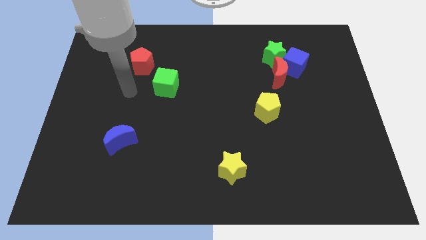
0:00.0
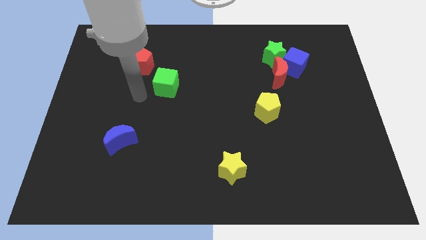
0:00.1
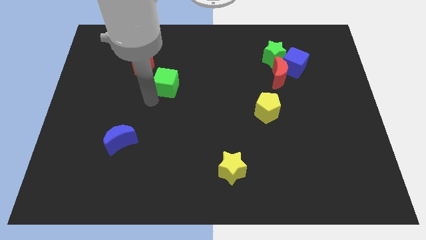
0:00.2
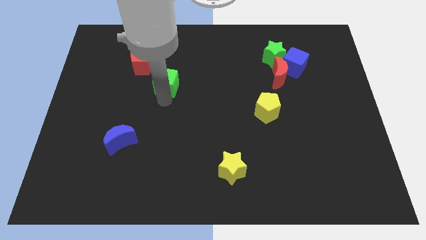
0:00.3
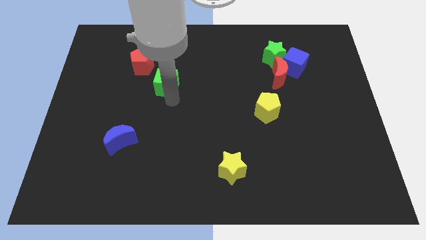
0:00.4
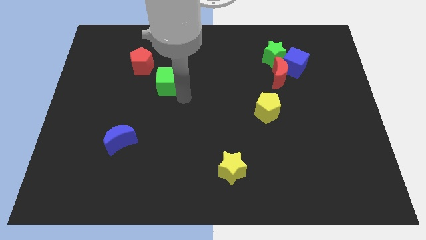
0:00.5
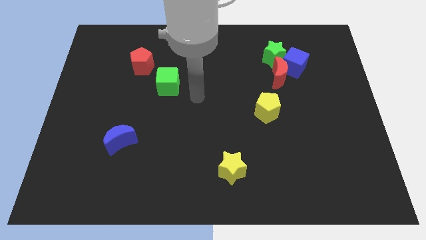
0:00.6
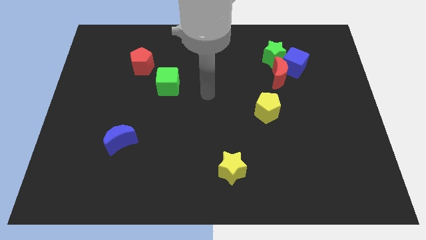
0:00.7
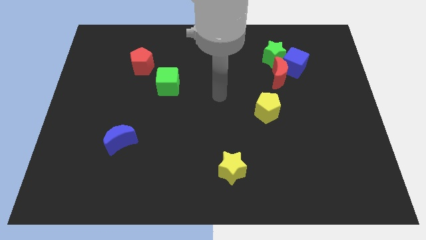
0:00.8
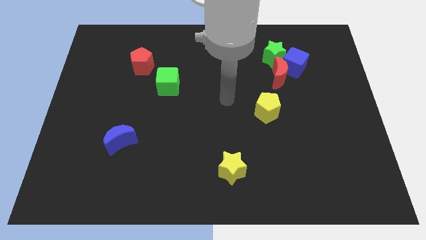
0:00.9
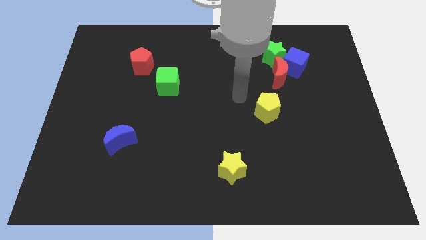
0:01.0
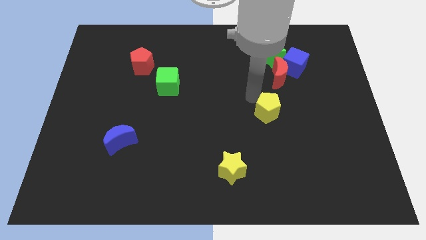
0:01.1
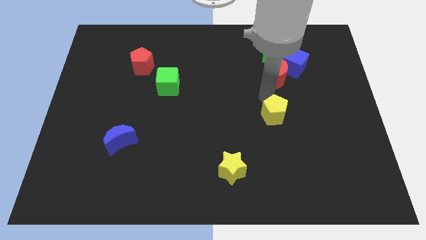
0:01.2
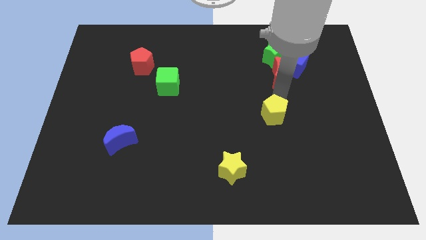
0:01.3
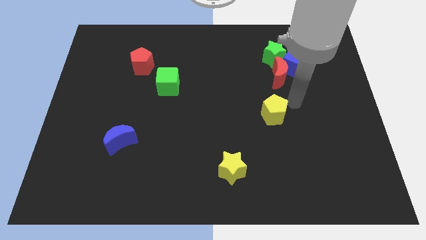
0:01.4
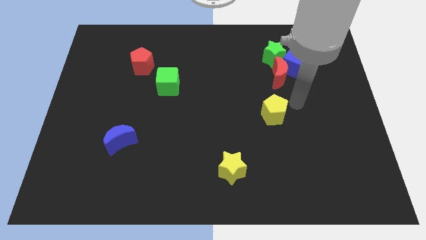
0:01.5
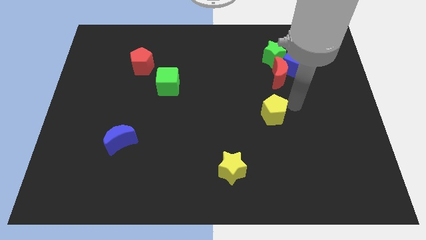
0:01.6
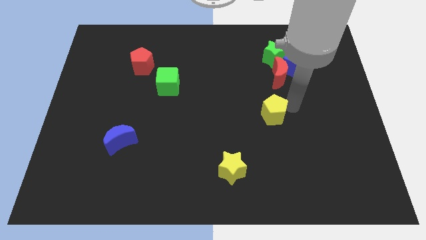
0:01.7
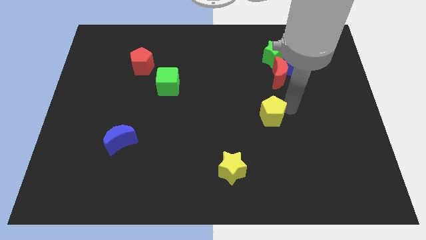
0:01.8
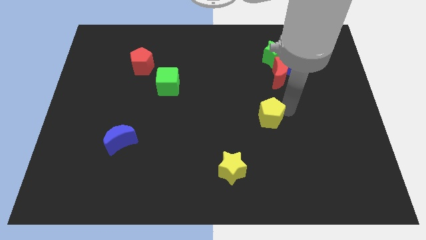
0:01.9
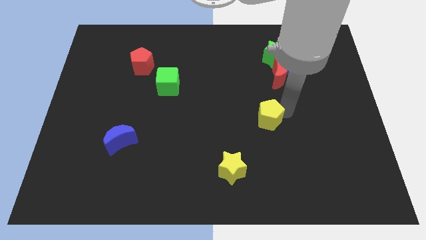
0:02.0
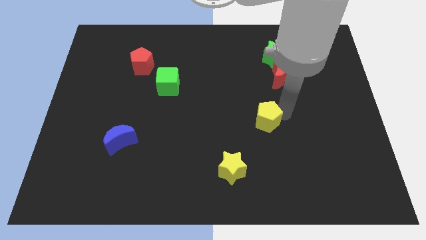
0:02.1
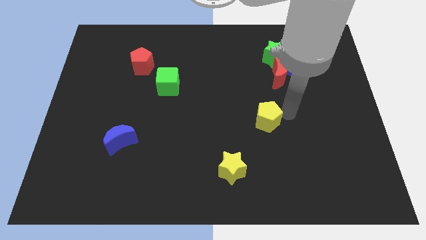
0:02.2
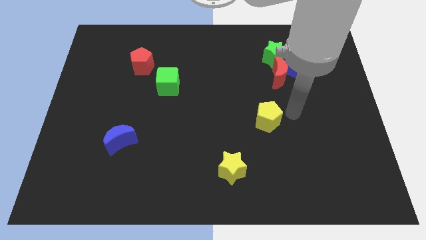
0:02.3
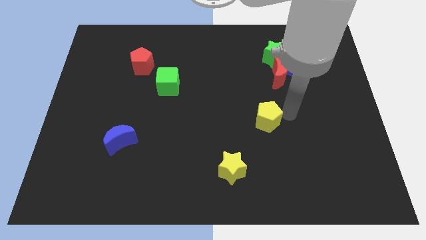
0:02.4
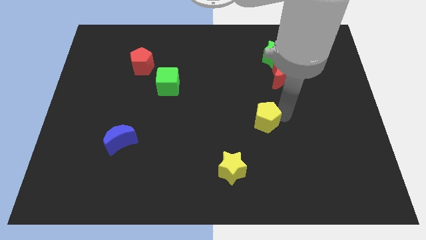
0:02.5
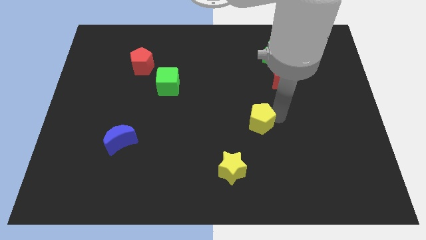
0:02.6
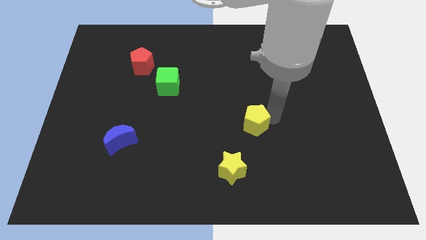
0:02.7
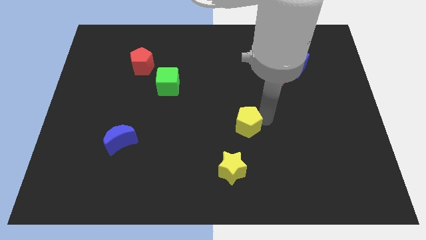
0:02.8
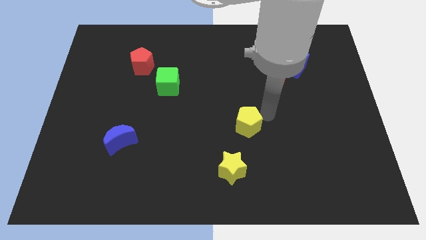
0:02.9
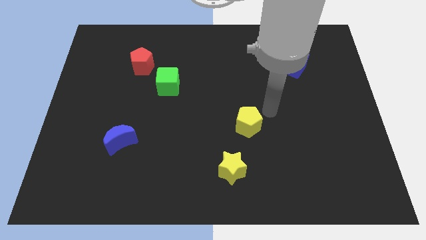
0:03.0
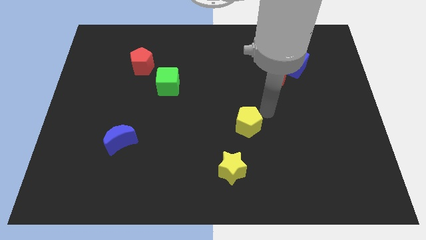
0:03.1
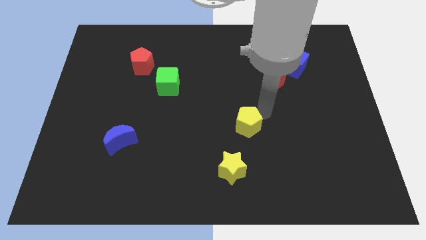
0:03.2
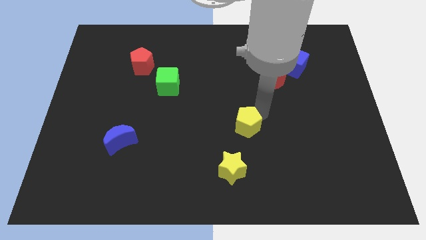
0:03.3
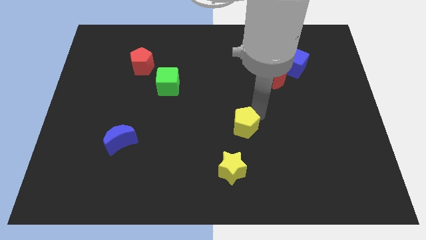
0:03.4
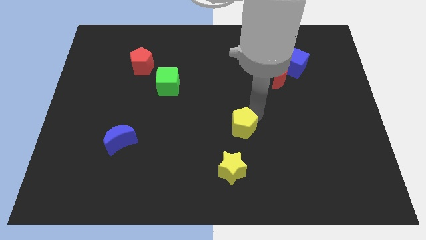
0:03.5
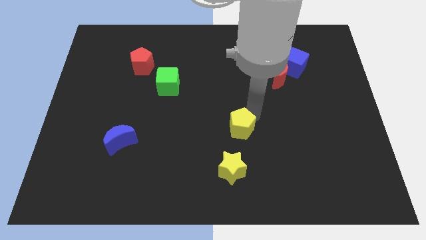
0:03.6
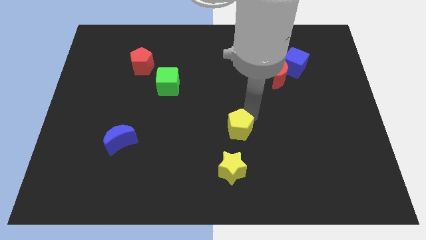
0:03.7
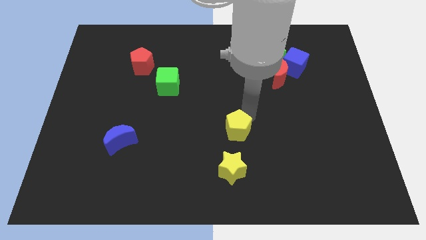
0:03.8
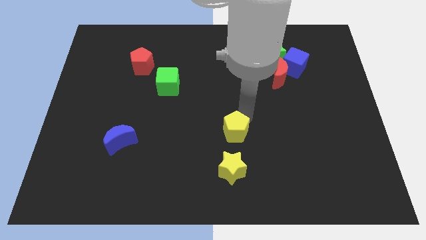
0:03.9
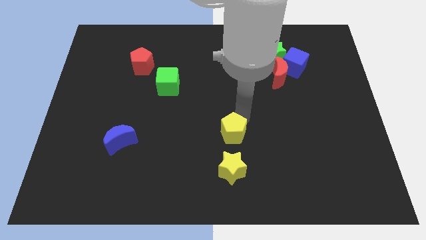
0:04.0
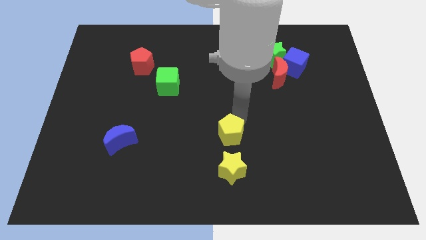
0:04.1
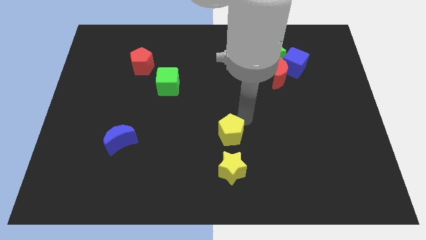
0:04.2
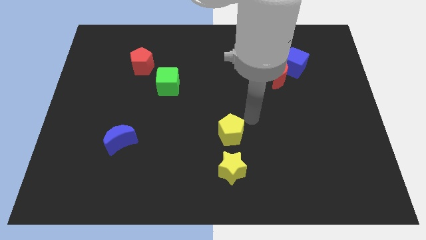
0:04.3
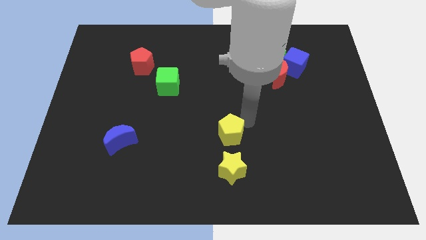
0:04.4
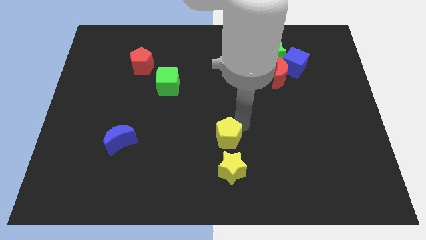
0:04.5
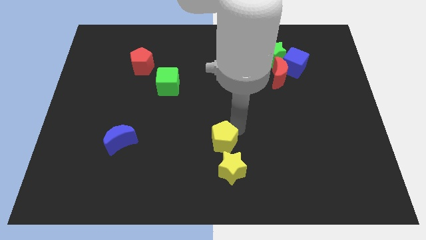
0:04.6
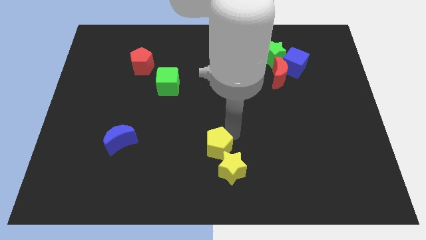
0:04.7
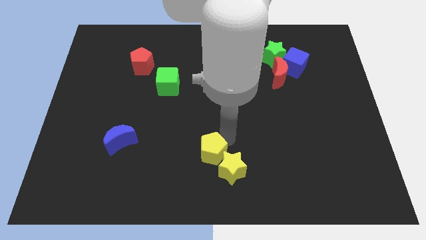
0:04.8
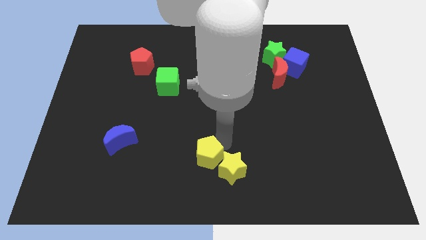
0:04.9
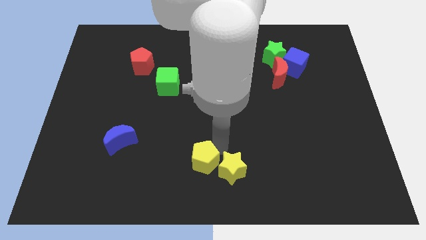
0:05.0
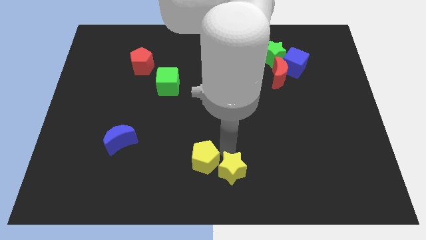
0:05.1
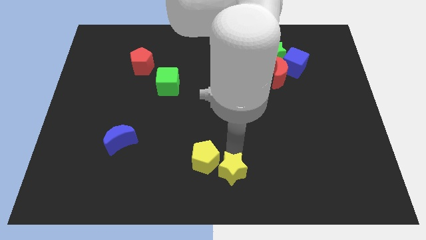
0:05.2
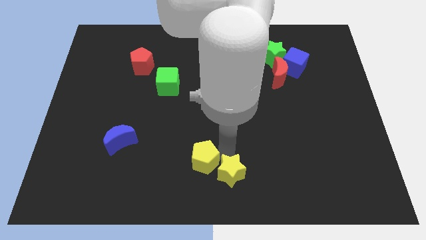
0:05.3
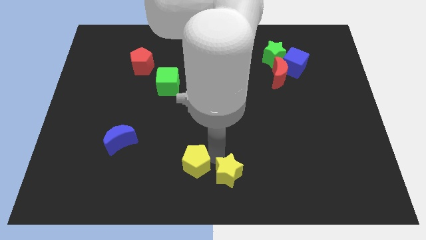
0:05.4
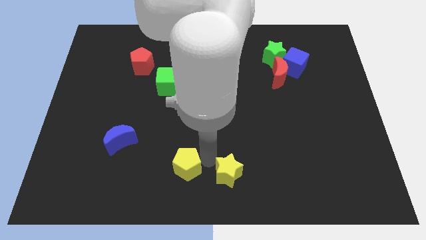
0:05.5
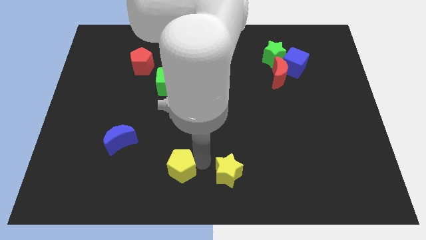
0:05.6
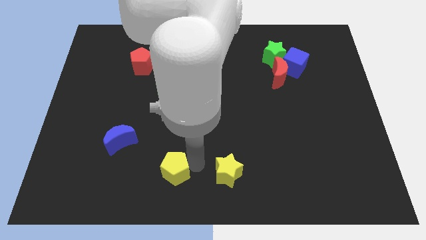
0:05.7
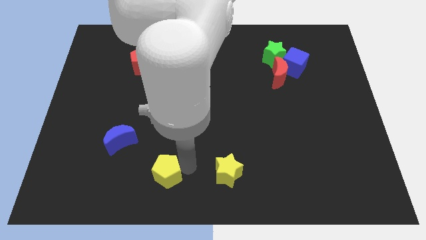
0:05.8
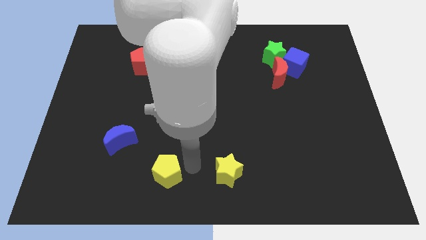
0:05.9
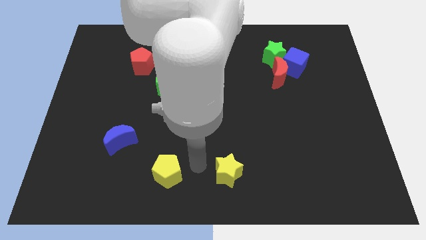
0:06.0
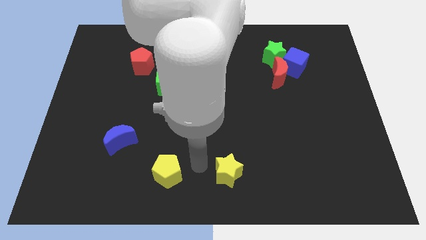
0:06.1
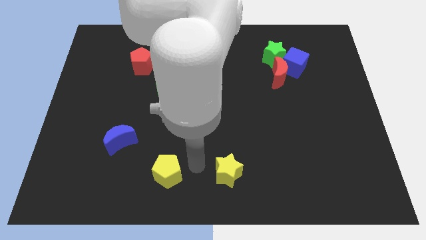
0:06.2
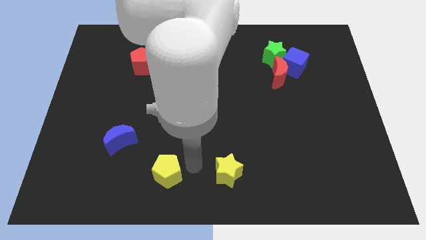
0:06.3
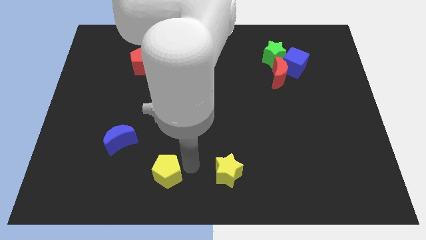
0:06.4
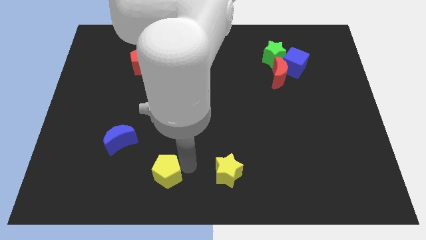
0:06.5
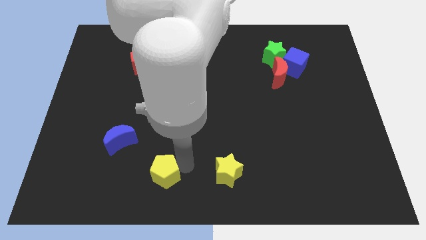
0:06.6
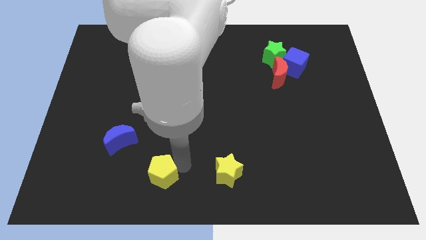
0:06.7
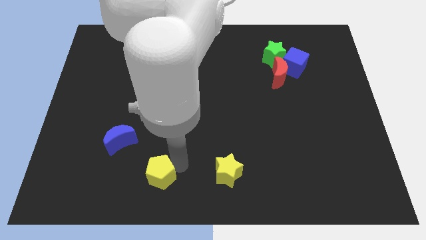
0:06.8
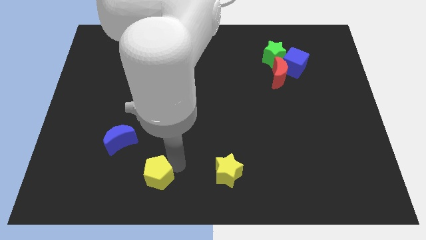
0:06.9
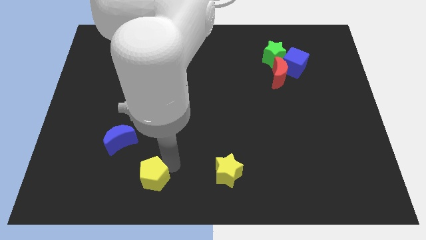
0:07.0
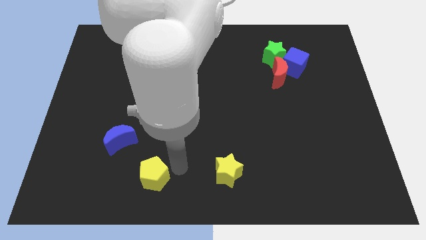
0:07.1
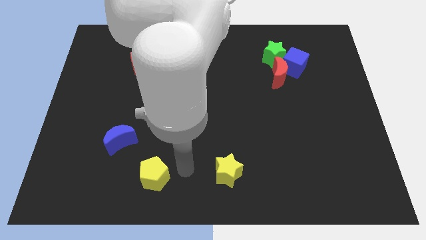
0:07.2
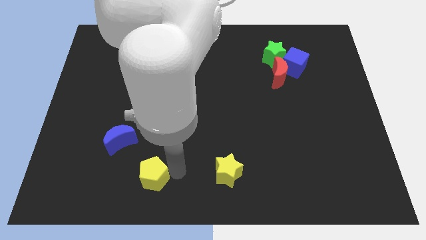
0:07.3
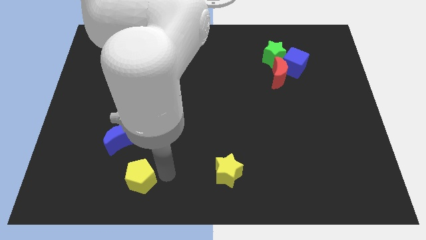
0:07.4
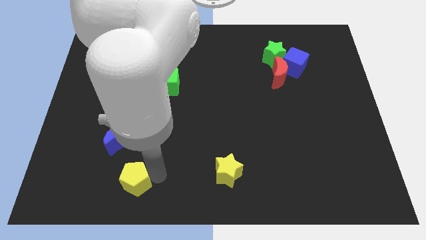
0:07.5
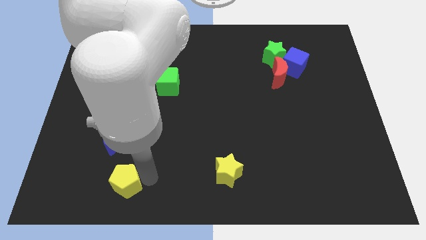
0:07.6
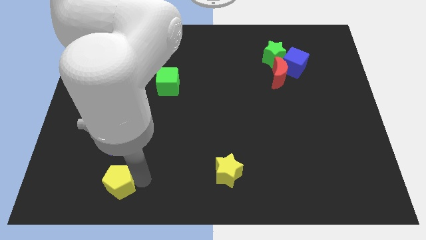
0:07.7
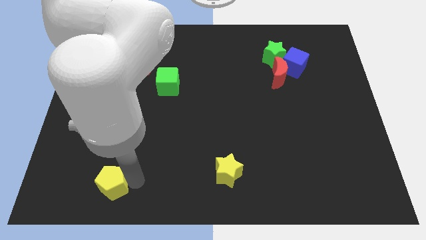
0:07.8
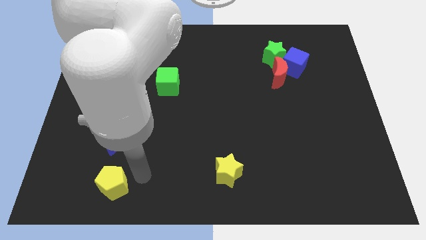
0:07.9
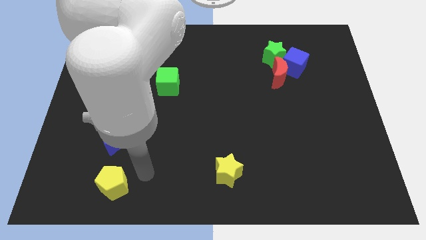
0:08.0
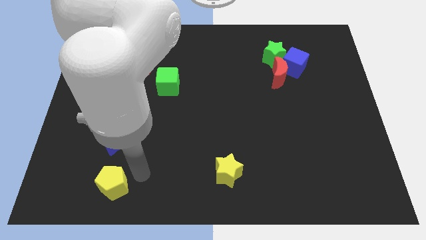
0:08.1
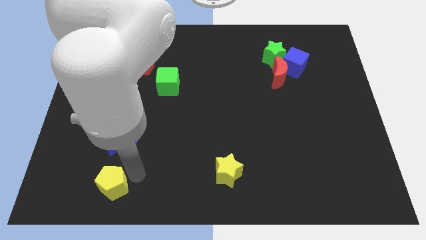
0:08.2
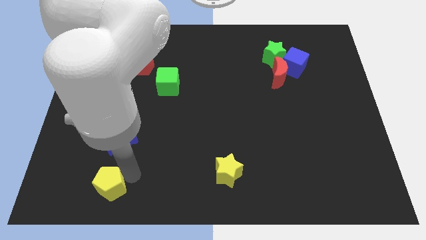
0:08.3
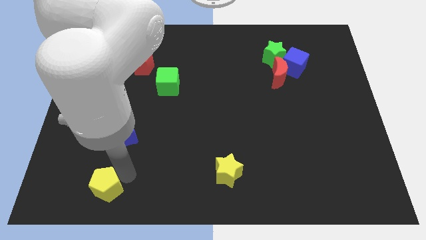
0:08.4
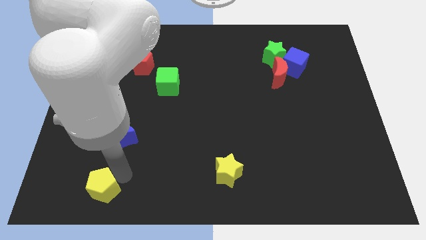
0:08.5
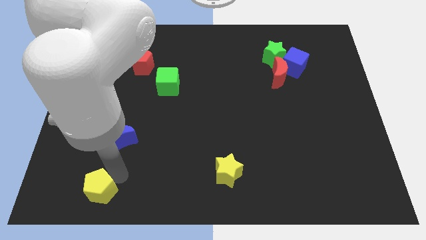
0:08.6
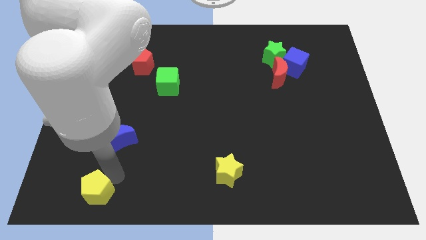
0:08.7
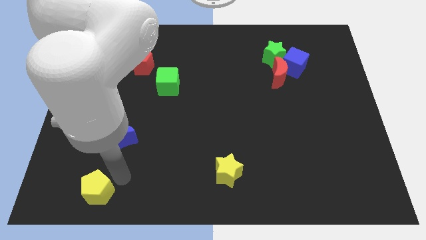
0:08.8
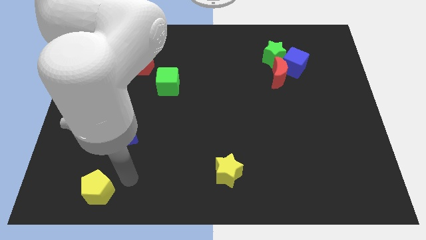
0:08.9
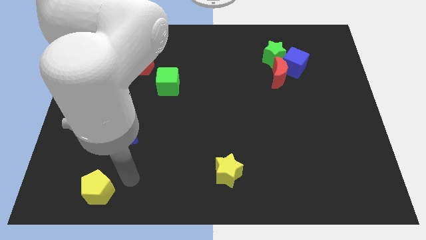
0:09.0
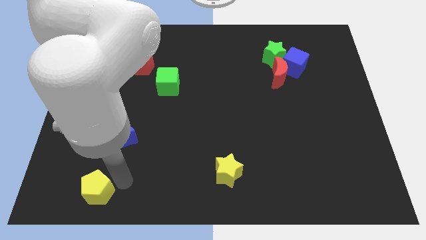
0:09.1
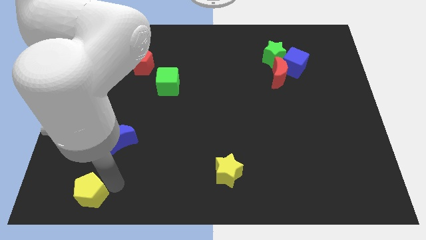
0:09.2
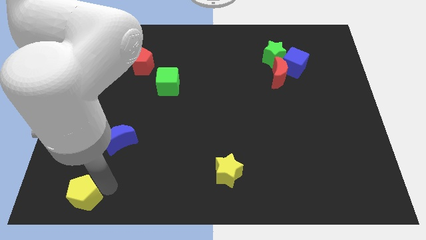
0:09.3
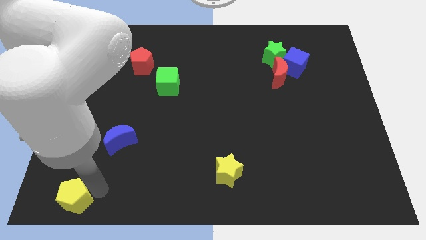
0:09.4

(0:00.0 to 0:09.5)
move the yellow pentagon to the bottom left
